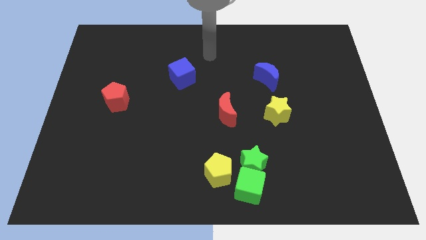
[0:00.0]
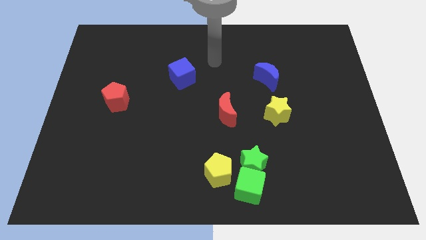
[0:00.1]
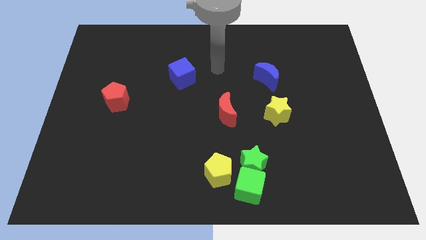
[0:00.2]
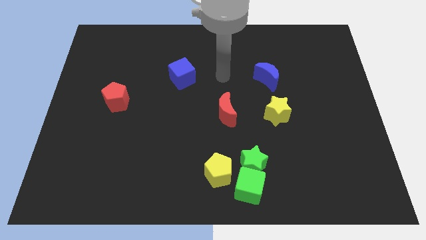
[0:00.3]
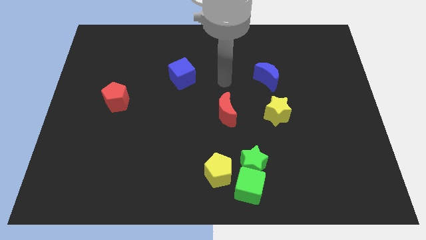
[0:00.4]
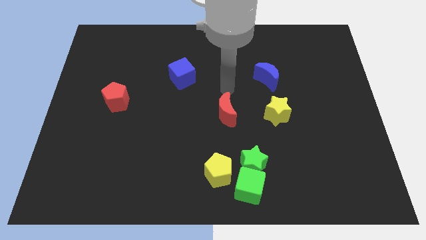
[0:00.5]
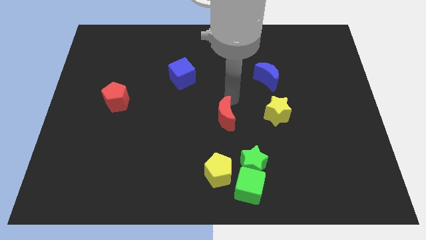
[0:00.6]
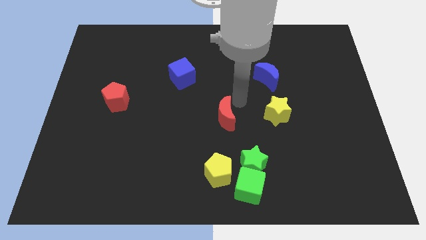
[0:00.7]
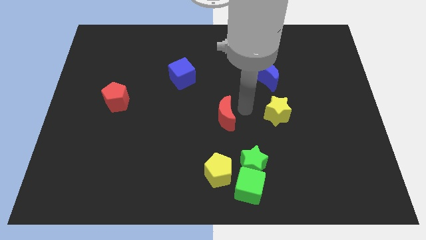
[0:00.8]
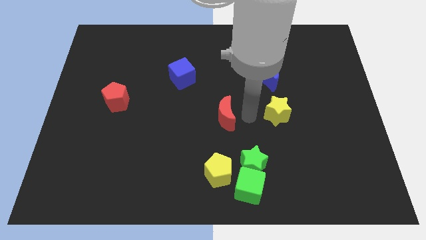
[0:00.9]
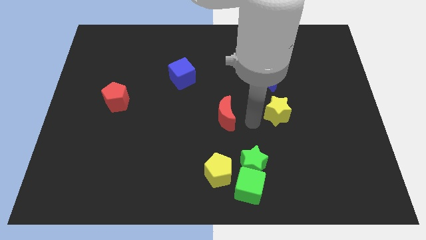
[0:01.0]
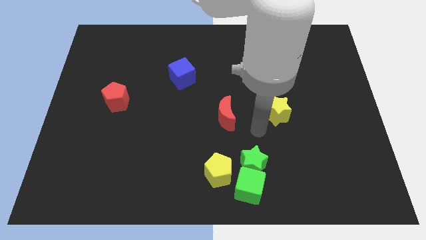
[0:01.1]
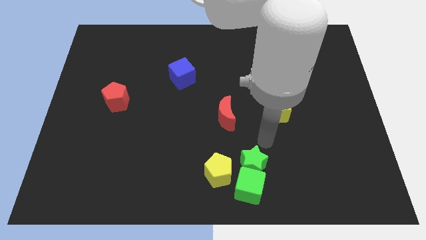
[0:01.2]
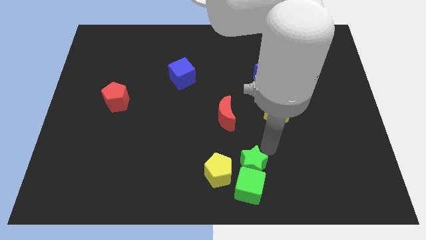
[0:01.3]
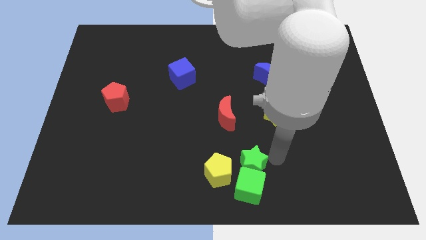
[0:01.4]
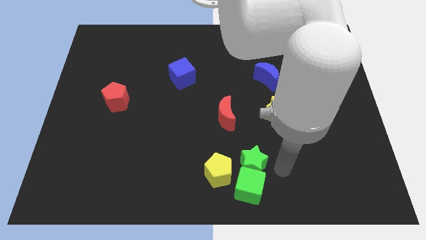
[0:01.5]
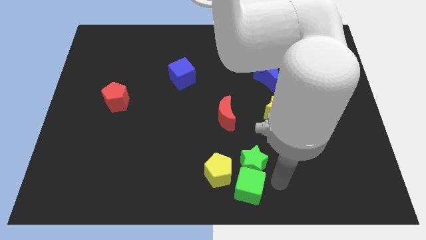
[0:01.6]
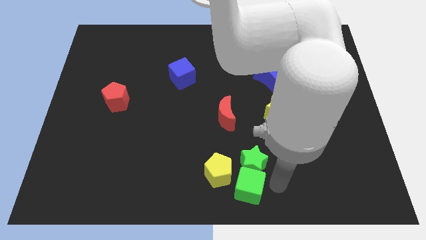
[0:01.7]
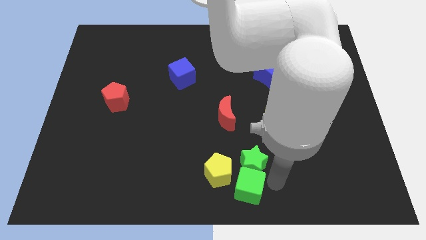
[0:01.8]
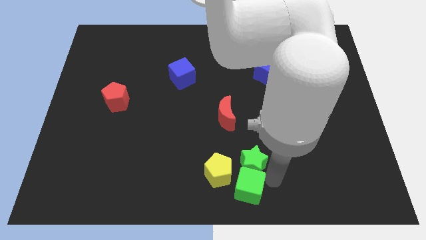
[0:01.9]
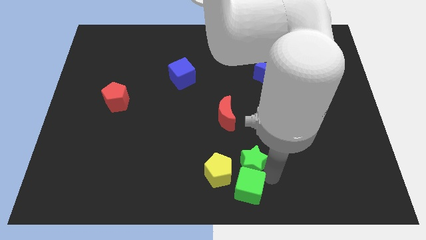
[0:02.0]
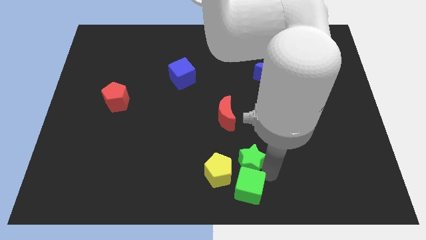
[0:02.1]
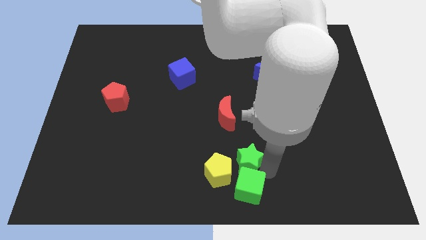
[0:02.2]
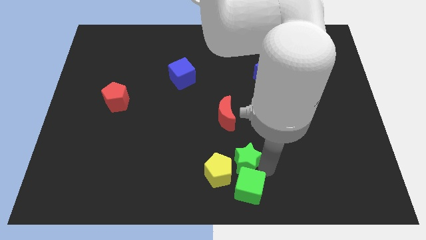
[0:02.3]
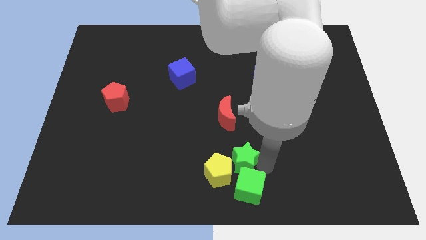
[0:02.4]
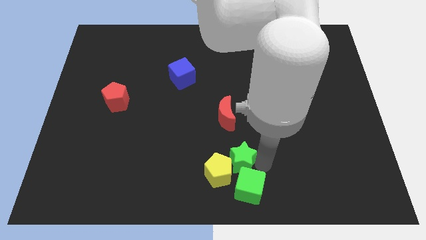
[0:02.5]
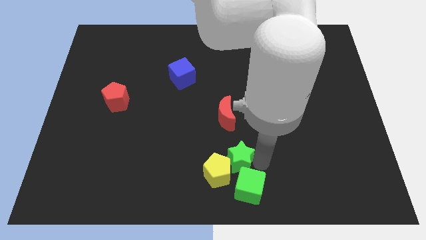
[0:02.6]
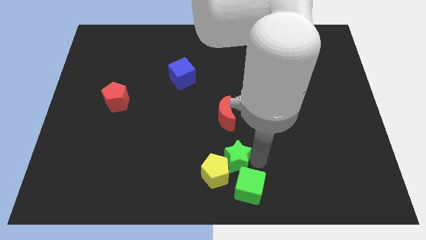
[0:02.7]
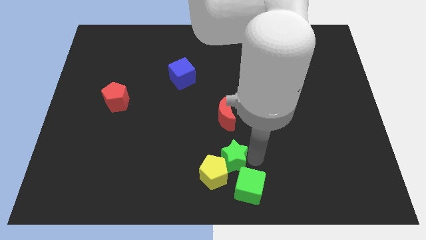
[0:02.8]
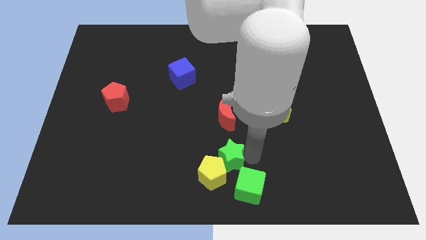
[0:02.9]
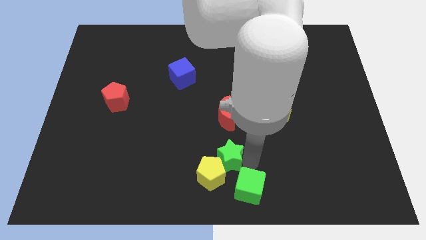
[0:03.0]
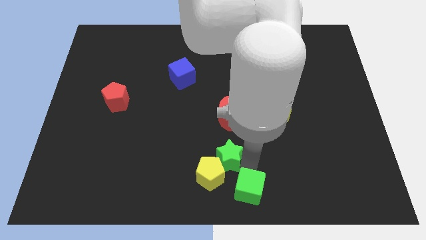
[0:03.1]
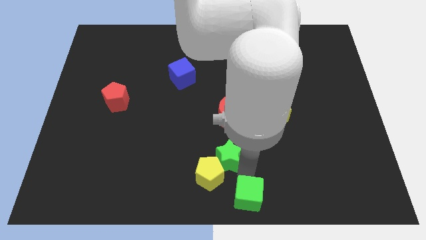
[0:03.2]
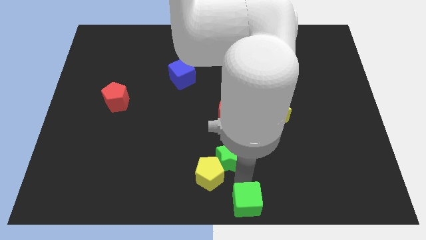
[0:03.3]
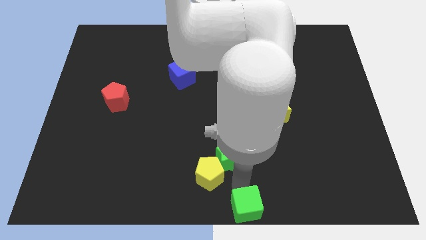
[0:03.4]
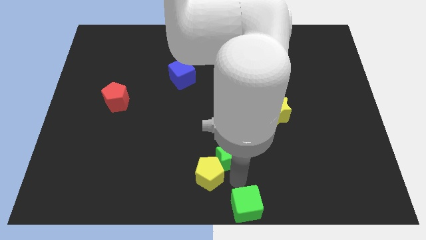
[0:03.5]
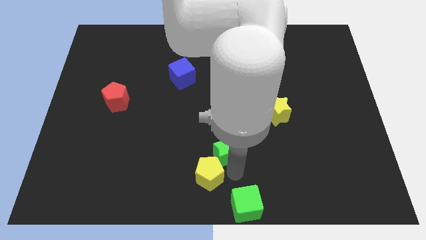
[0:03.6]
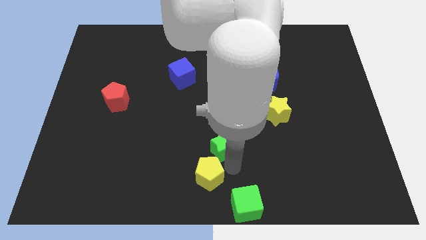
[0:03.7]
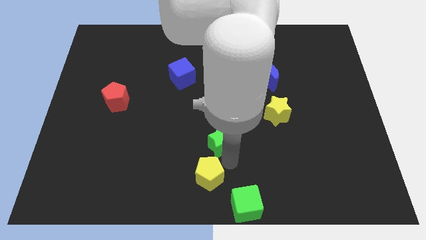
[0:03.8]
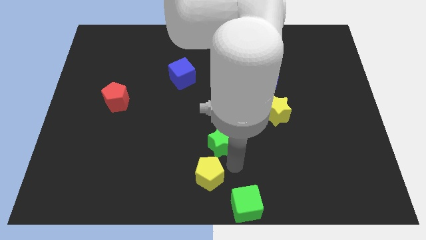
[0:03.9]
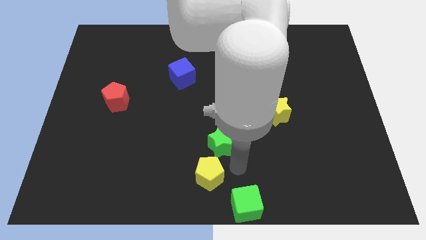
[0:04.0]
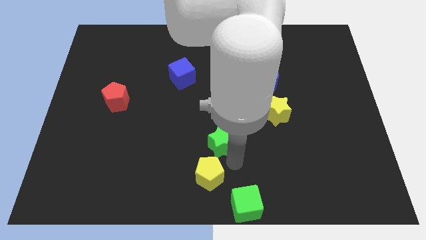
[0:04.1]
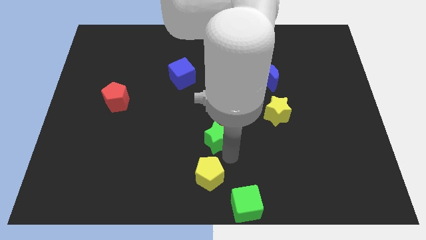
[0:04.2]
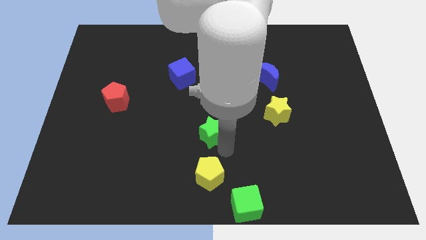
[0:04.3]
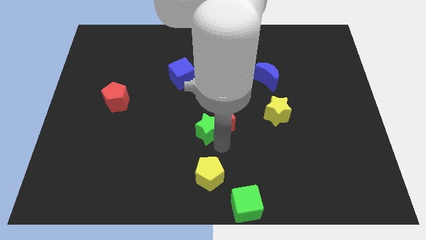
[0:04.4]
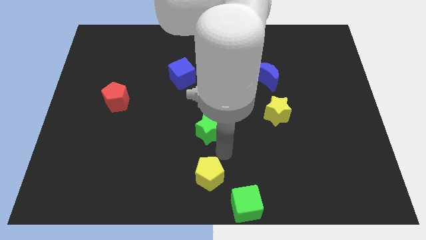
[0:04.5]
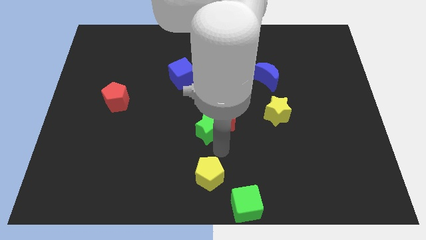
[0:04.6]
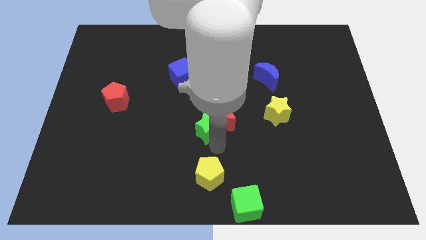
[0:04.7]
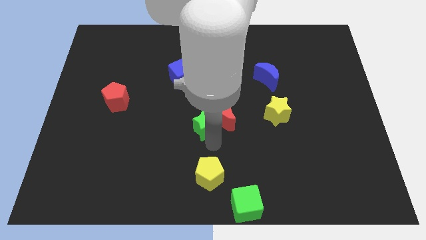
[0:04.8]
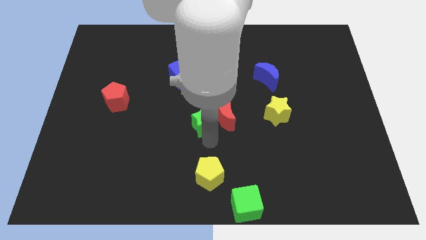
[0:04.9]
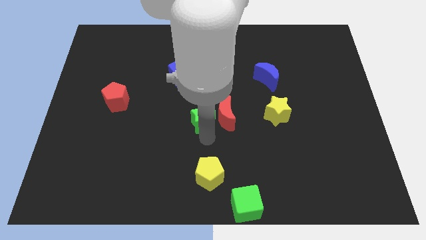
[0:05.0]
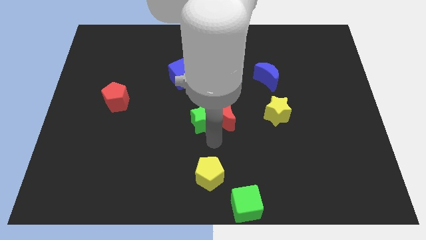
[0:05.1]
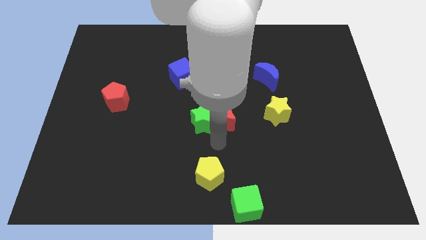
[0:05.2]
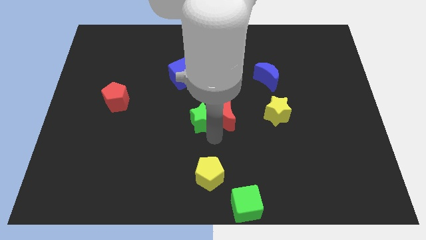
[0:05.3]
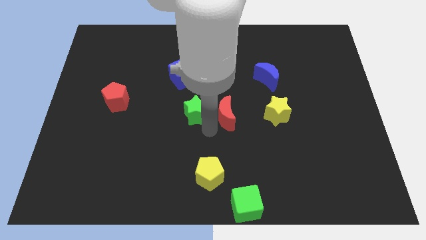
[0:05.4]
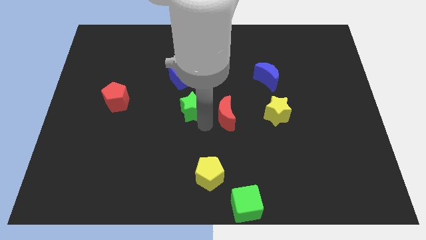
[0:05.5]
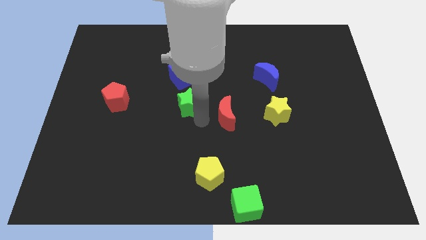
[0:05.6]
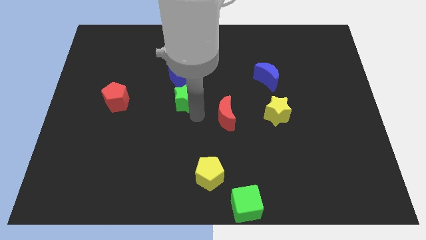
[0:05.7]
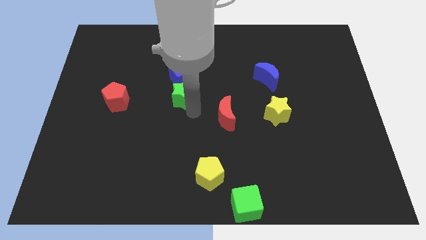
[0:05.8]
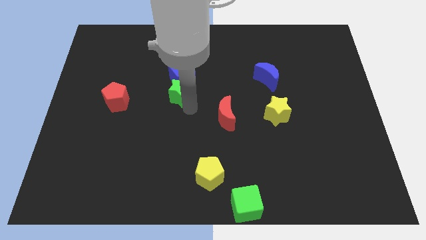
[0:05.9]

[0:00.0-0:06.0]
slide the green star next to the blue cube

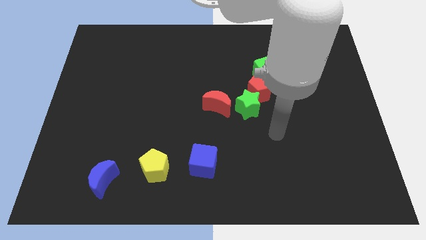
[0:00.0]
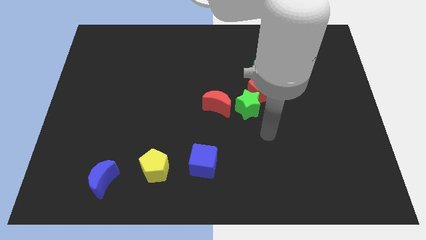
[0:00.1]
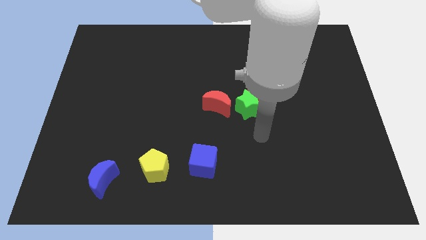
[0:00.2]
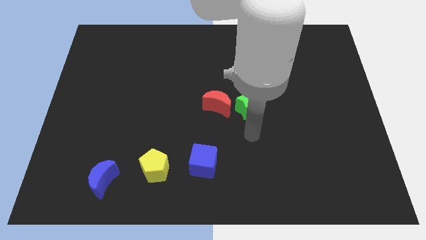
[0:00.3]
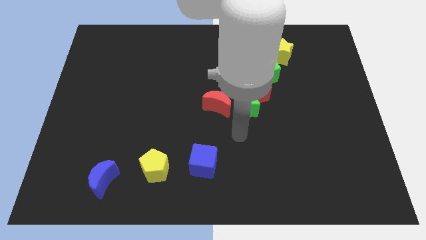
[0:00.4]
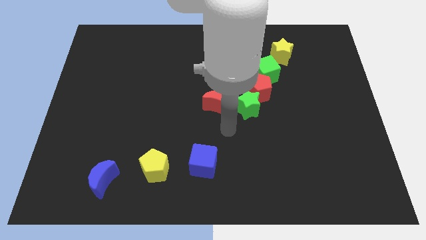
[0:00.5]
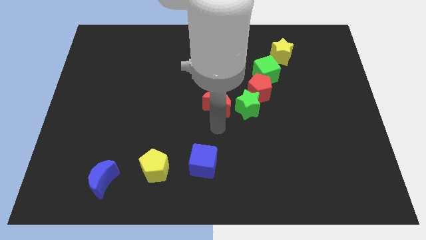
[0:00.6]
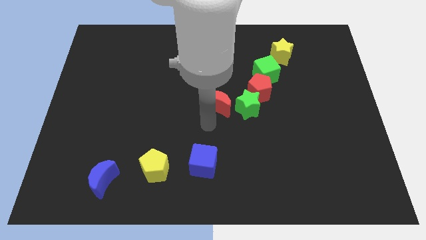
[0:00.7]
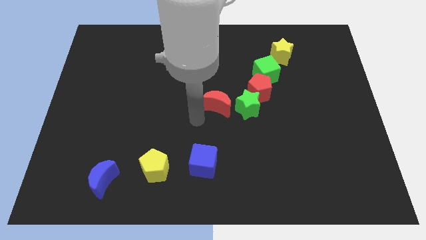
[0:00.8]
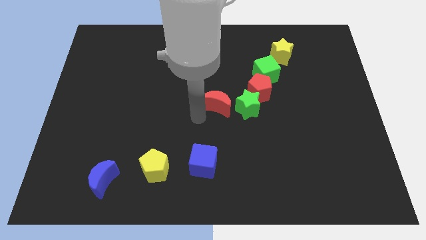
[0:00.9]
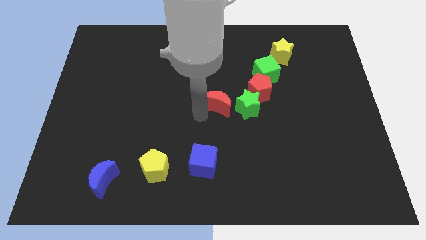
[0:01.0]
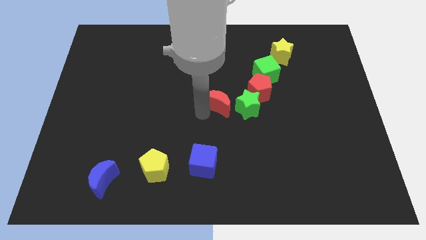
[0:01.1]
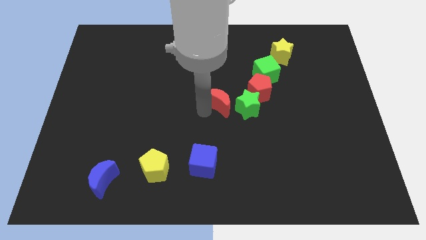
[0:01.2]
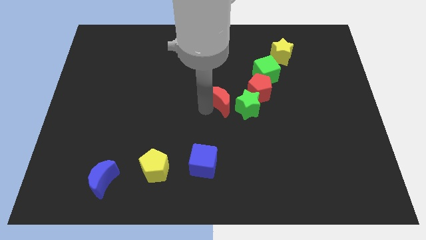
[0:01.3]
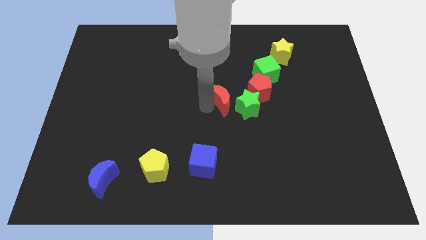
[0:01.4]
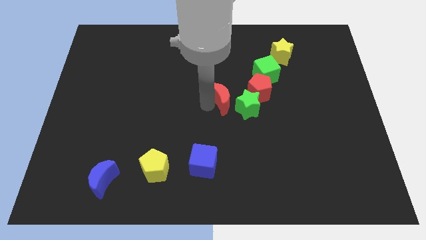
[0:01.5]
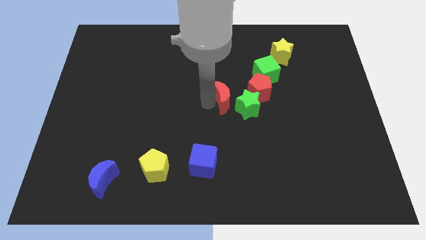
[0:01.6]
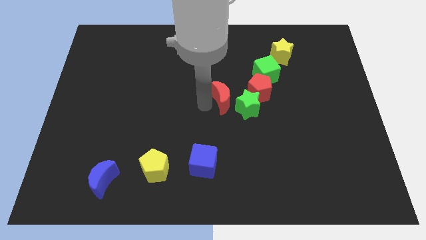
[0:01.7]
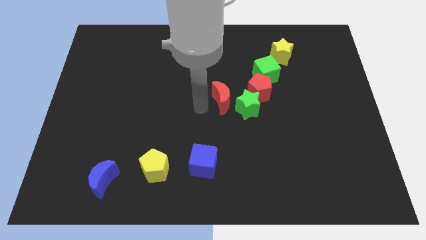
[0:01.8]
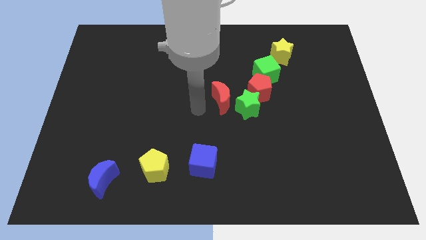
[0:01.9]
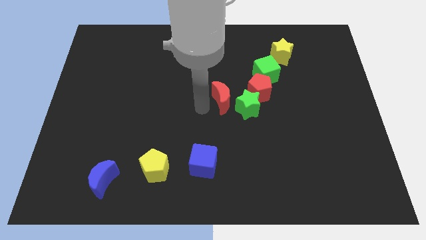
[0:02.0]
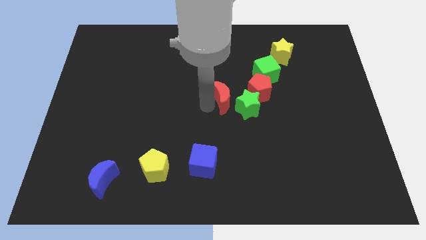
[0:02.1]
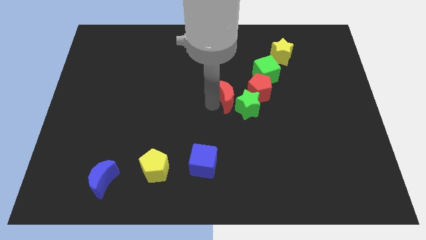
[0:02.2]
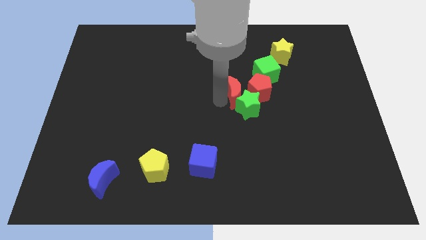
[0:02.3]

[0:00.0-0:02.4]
slide the red moon next to the red pentagon
